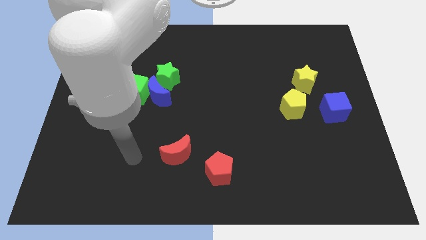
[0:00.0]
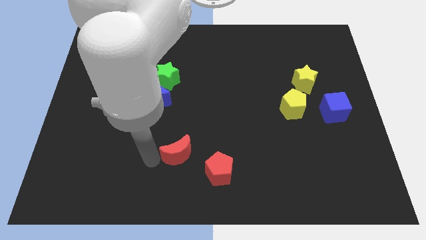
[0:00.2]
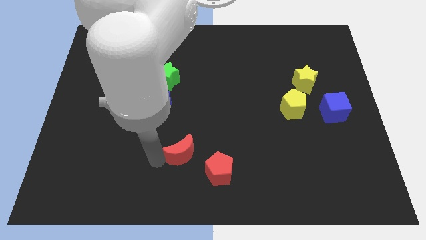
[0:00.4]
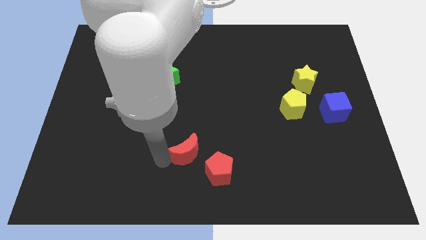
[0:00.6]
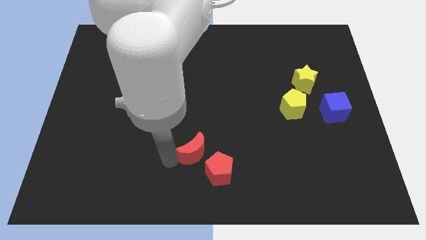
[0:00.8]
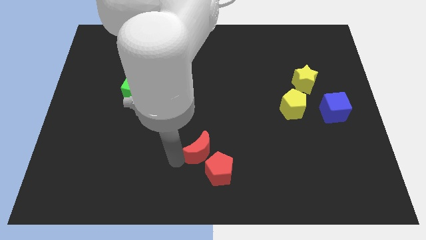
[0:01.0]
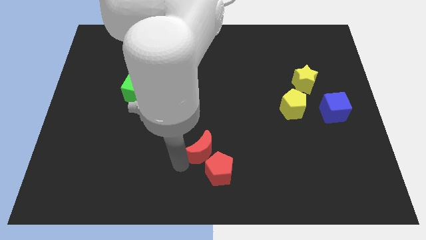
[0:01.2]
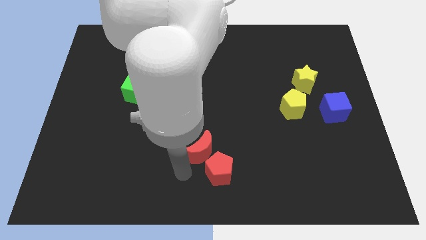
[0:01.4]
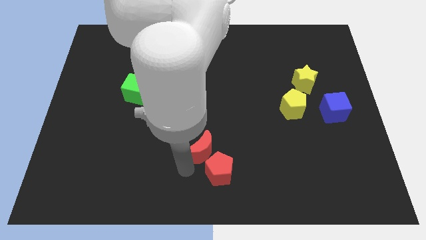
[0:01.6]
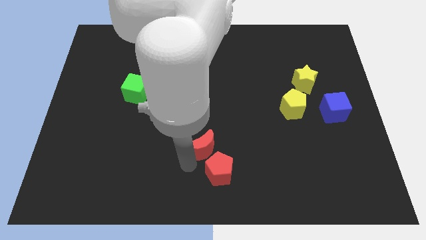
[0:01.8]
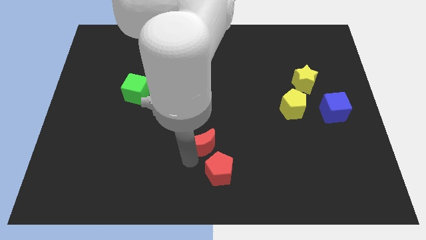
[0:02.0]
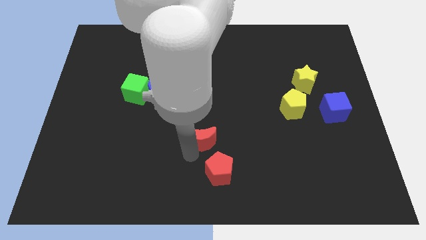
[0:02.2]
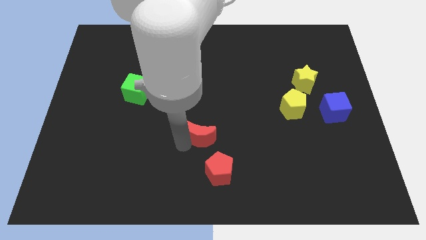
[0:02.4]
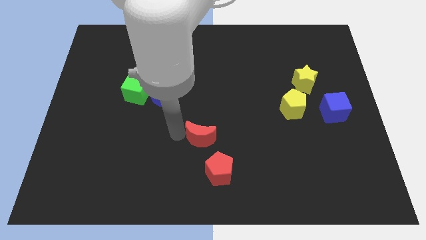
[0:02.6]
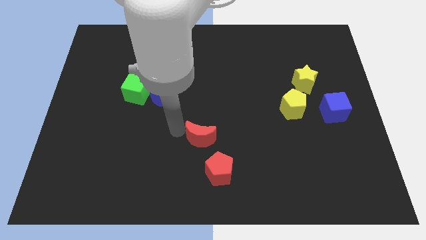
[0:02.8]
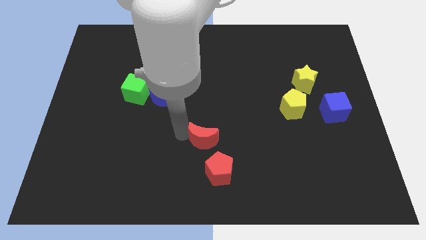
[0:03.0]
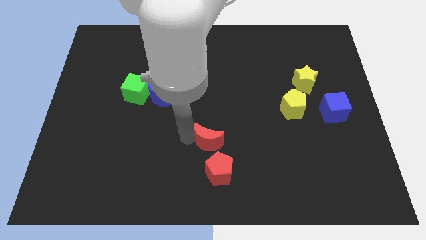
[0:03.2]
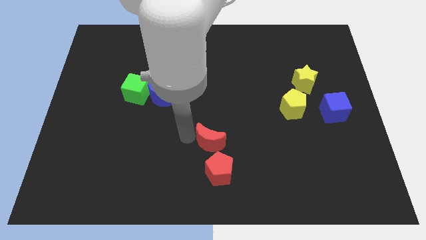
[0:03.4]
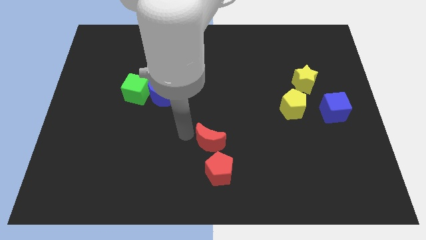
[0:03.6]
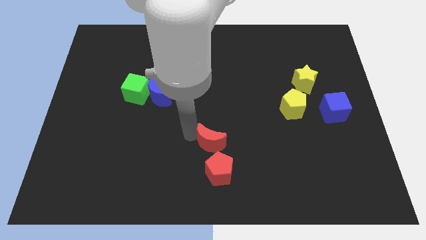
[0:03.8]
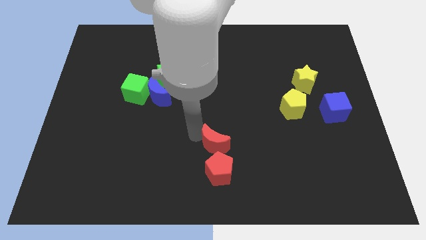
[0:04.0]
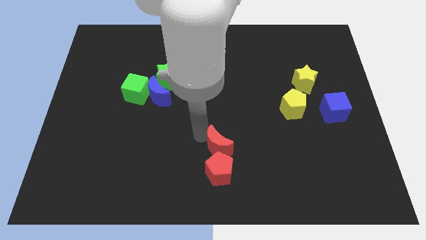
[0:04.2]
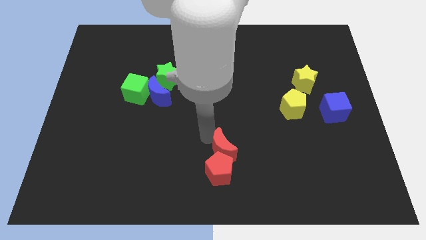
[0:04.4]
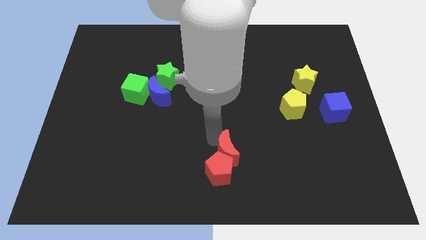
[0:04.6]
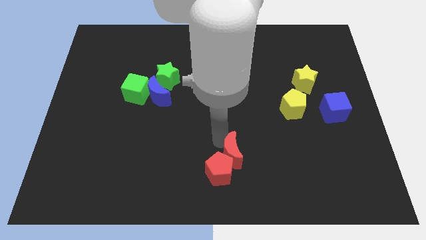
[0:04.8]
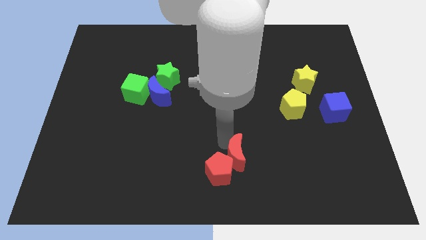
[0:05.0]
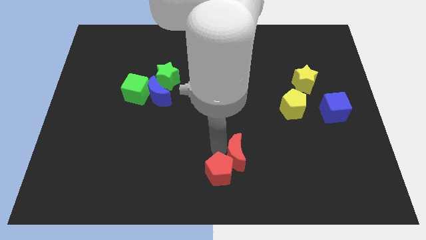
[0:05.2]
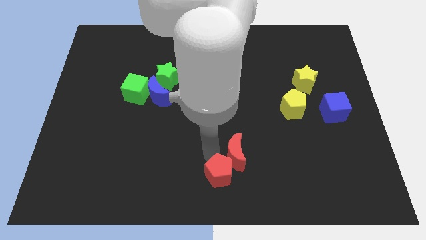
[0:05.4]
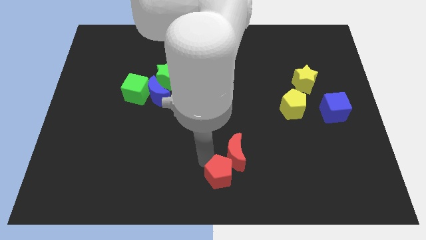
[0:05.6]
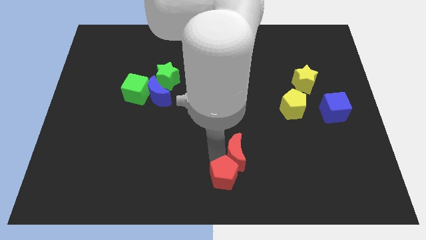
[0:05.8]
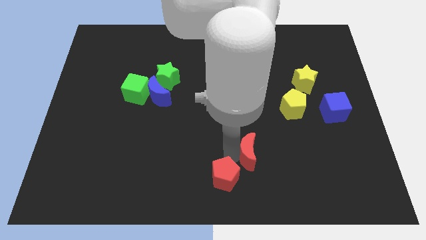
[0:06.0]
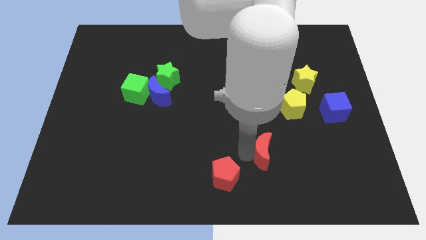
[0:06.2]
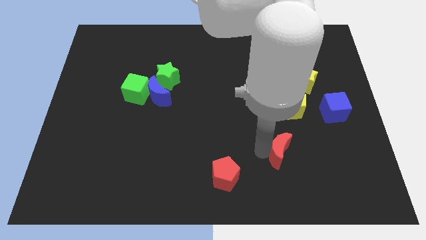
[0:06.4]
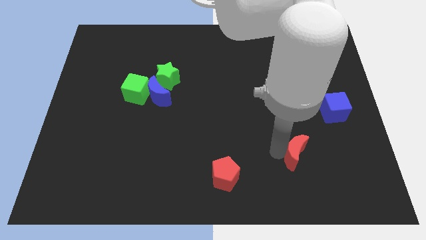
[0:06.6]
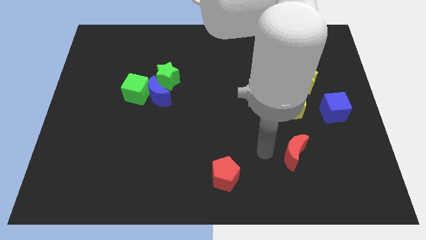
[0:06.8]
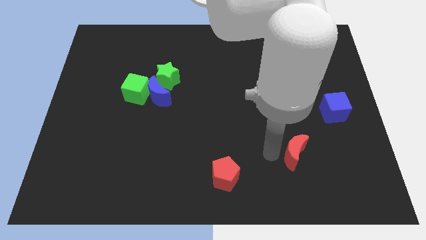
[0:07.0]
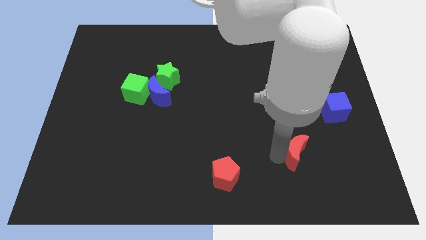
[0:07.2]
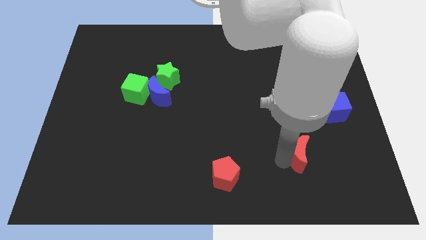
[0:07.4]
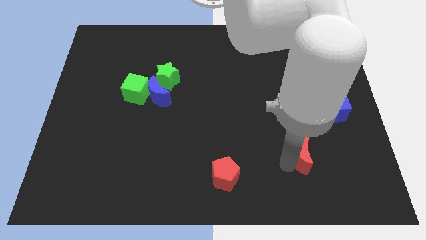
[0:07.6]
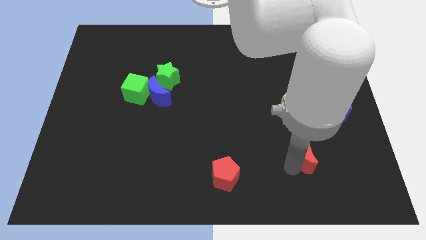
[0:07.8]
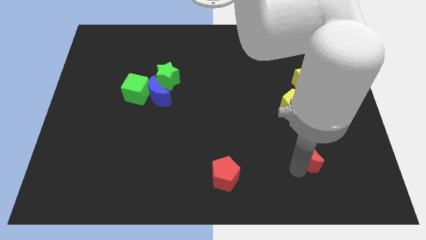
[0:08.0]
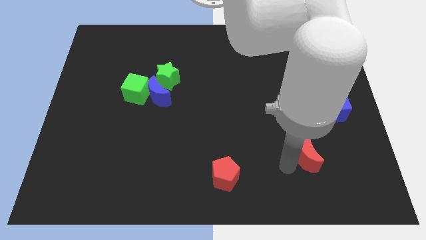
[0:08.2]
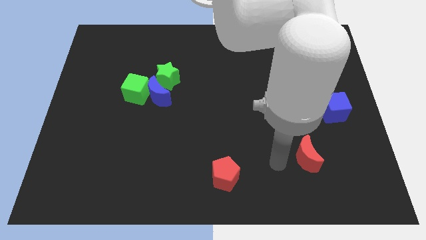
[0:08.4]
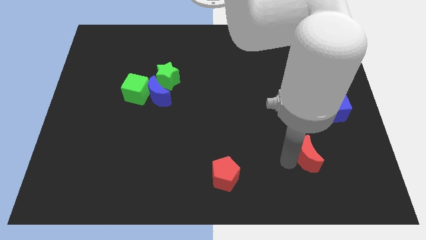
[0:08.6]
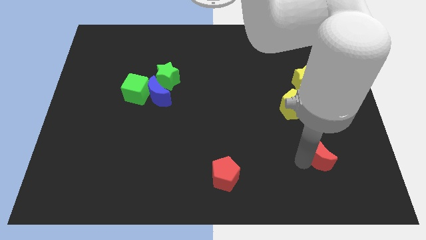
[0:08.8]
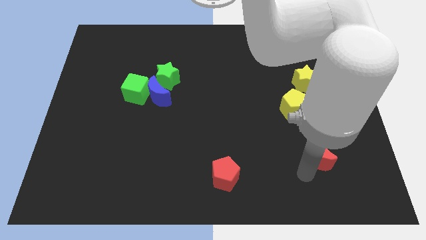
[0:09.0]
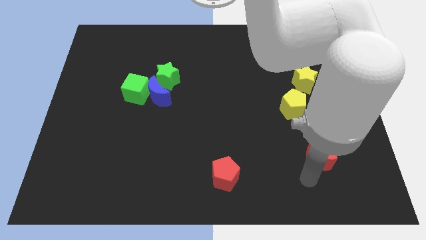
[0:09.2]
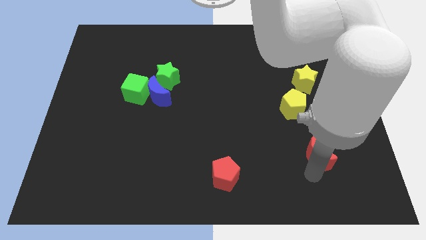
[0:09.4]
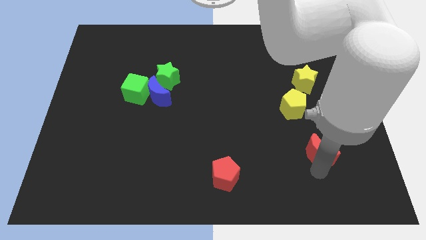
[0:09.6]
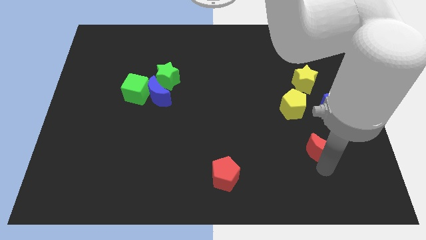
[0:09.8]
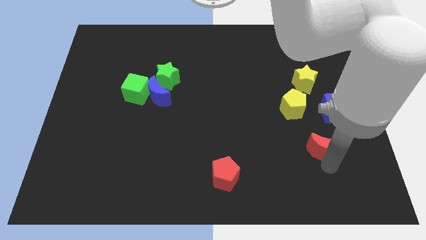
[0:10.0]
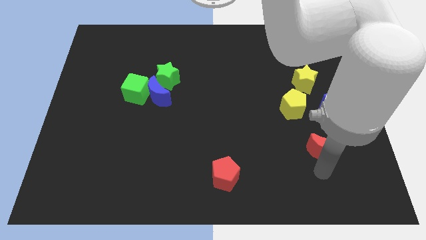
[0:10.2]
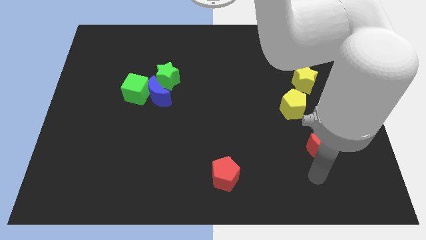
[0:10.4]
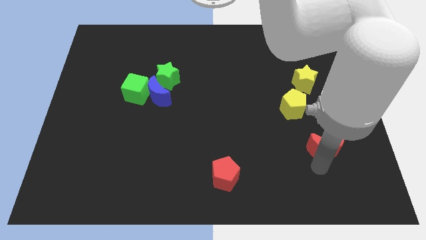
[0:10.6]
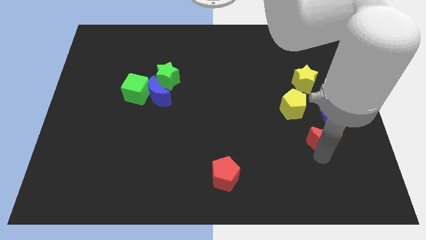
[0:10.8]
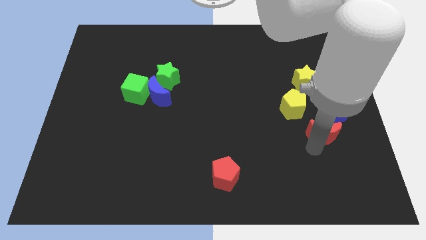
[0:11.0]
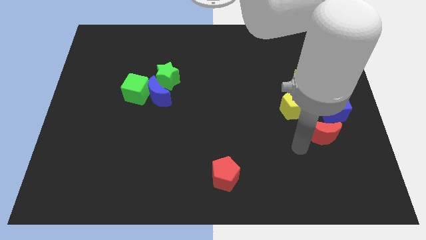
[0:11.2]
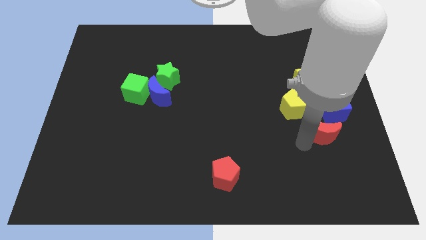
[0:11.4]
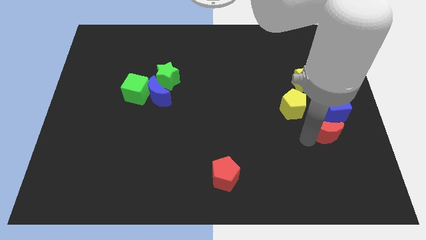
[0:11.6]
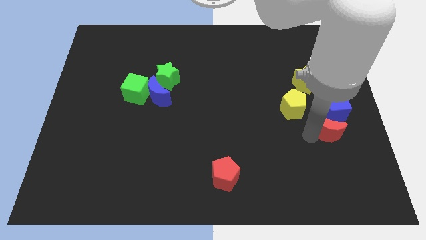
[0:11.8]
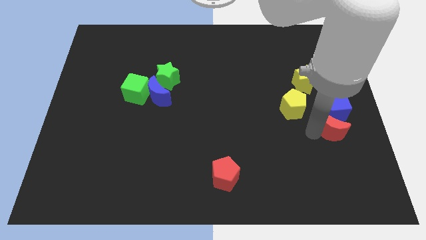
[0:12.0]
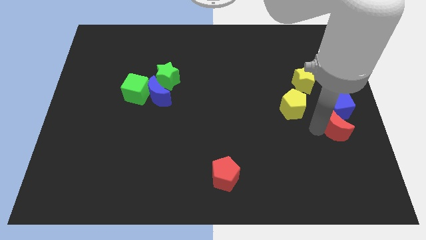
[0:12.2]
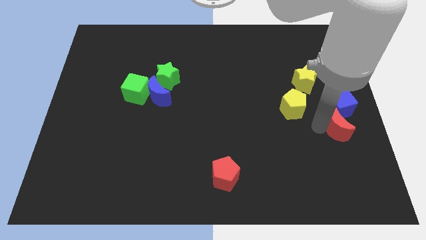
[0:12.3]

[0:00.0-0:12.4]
slide the red moon to the right side of the board
